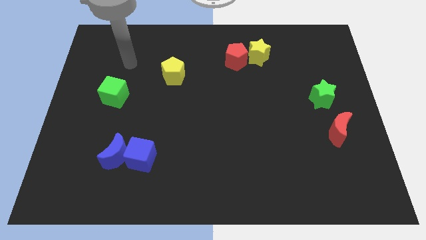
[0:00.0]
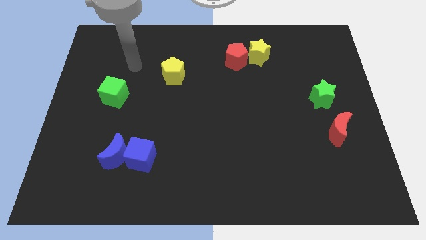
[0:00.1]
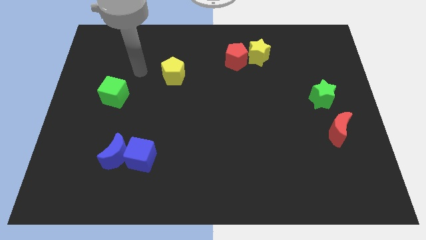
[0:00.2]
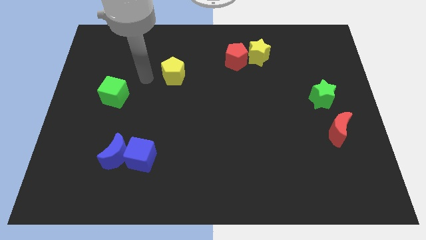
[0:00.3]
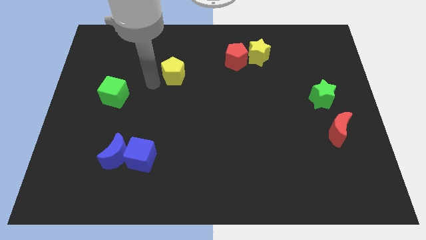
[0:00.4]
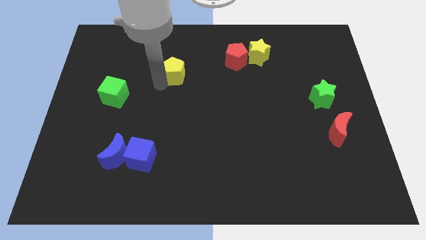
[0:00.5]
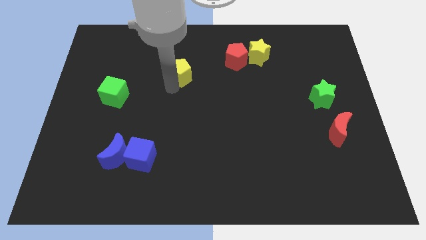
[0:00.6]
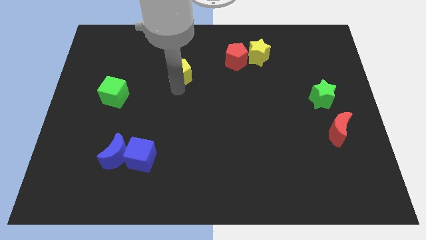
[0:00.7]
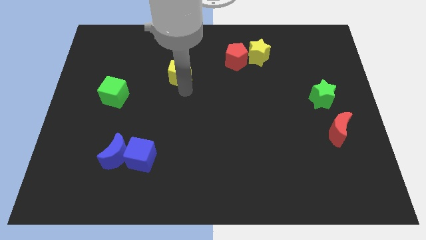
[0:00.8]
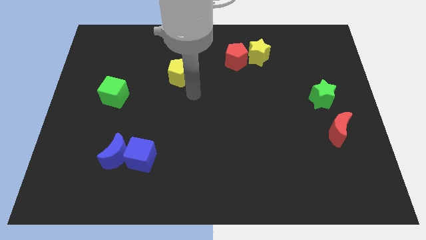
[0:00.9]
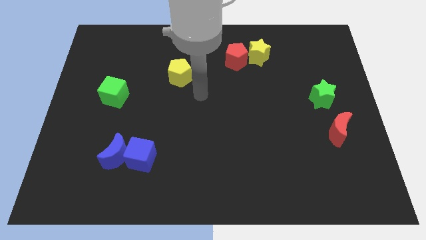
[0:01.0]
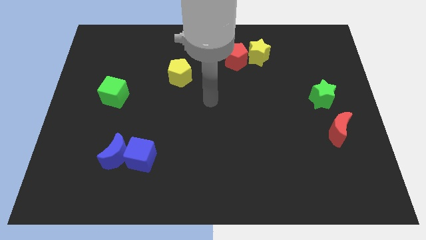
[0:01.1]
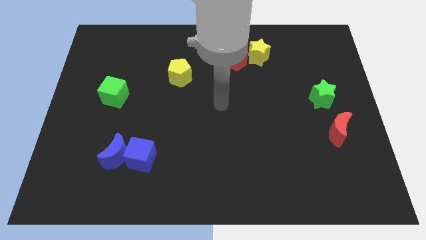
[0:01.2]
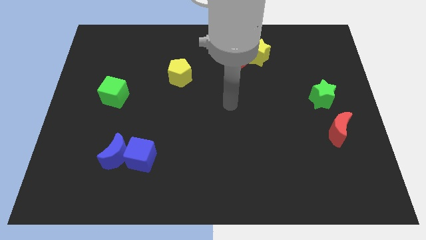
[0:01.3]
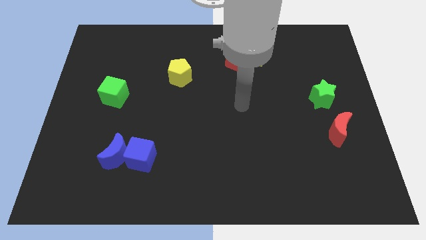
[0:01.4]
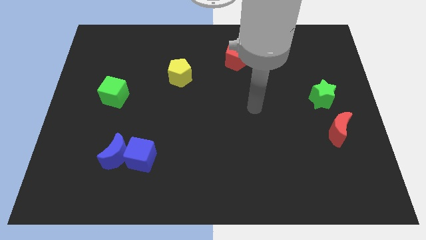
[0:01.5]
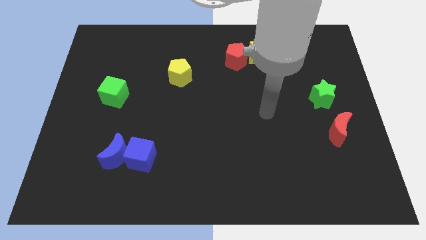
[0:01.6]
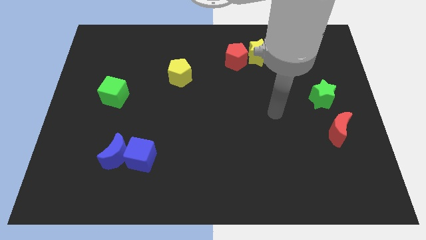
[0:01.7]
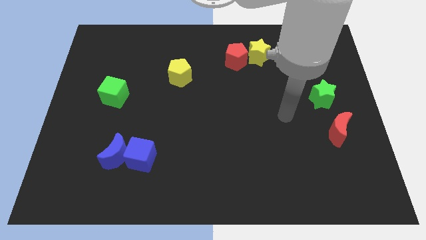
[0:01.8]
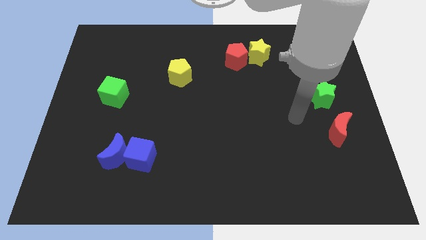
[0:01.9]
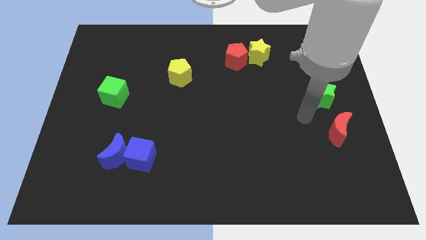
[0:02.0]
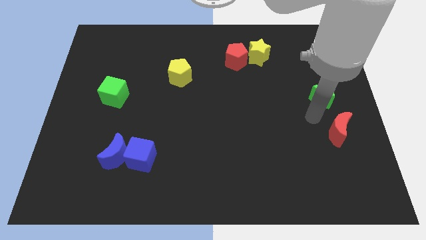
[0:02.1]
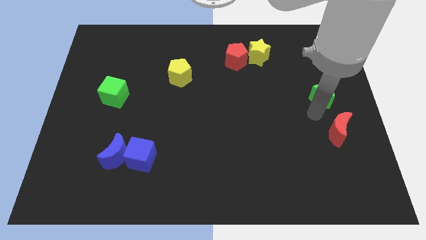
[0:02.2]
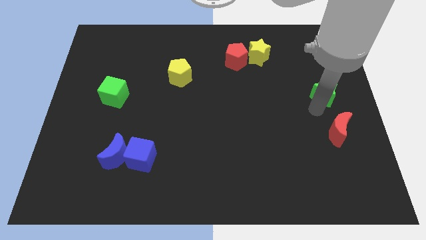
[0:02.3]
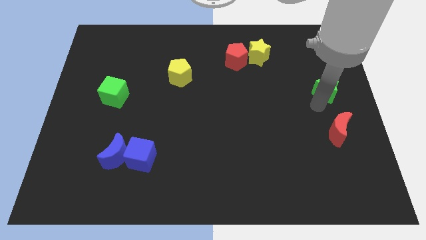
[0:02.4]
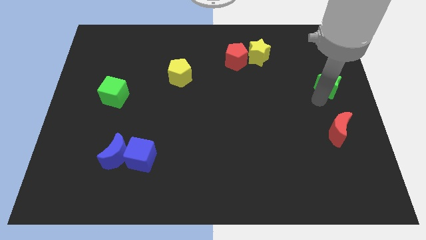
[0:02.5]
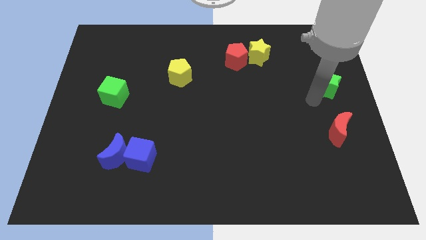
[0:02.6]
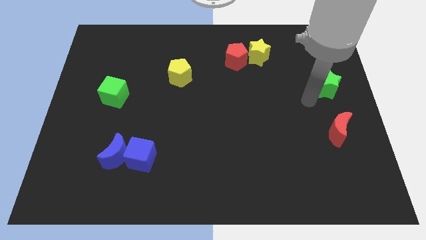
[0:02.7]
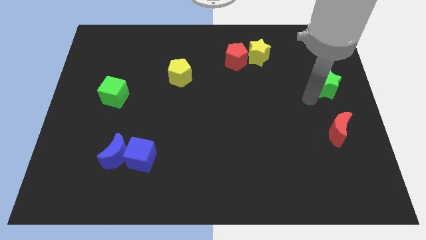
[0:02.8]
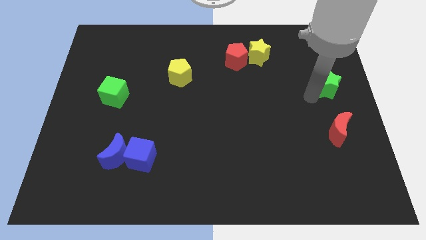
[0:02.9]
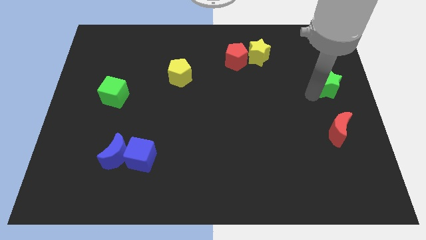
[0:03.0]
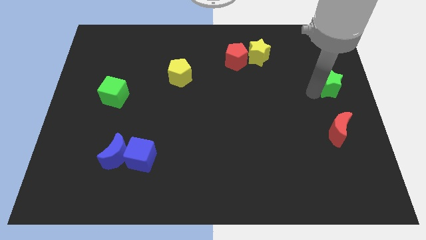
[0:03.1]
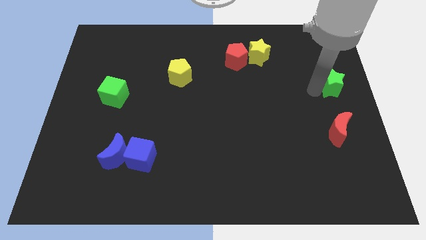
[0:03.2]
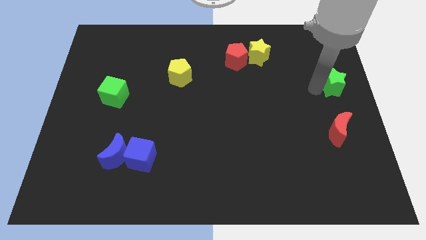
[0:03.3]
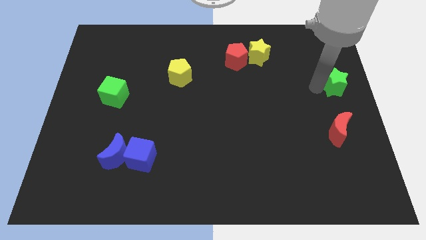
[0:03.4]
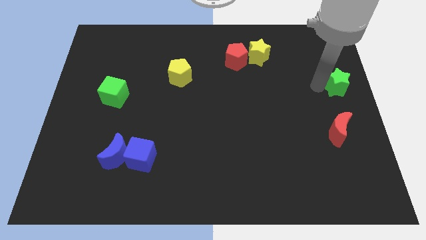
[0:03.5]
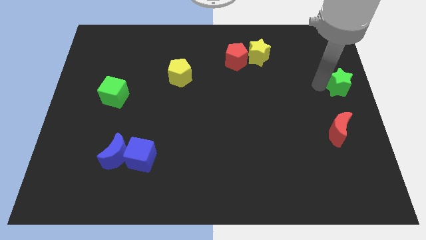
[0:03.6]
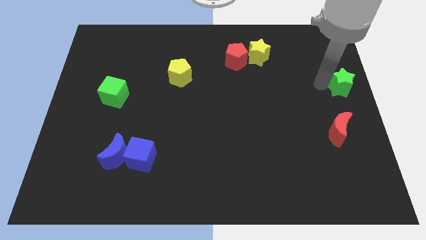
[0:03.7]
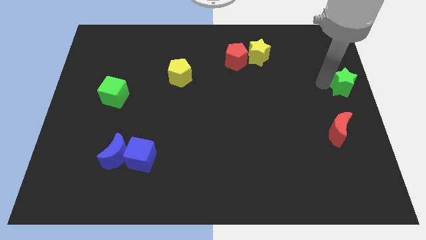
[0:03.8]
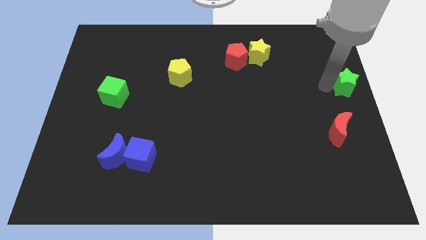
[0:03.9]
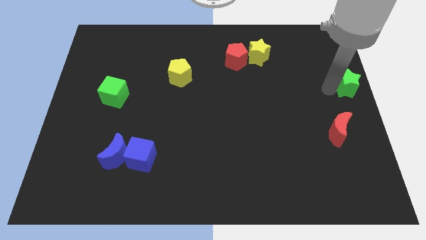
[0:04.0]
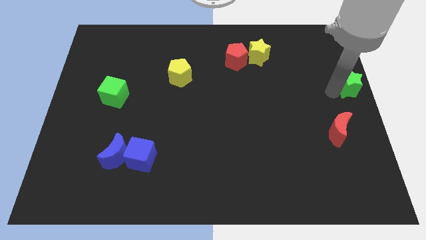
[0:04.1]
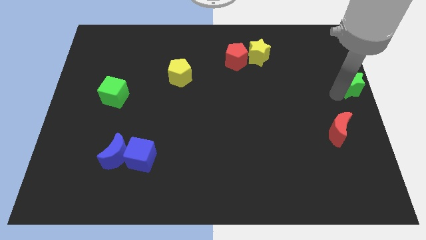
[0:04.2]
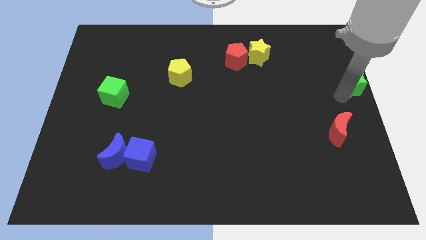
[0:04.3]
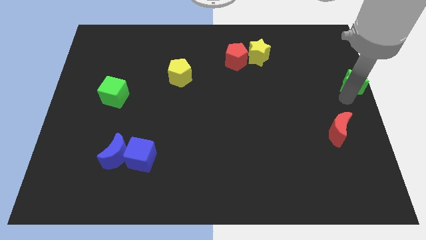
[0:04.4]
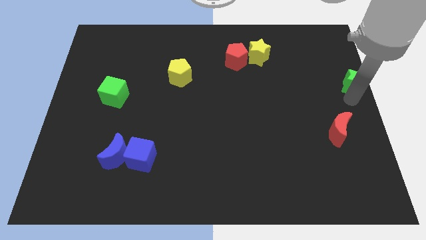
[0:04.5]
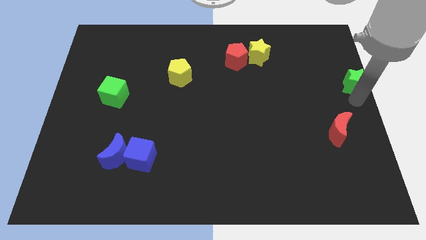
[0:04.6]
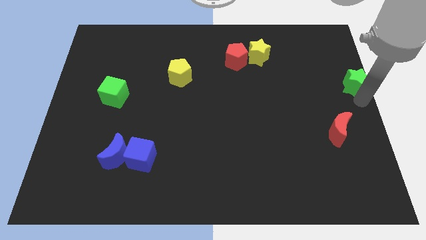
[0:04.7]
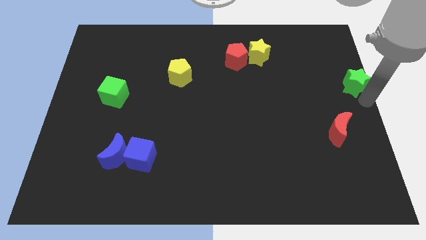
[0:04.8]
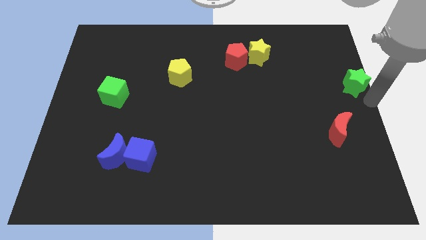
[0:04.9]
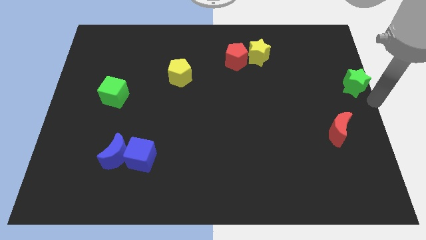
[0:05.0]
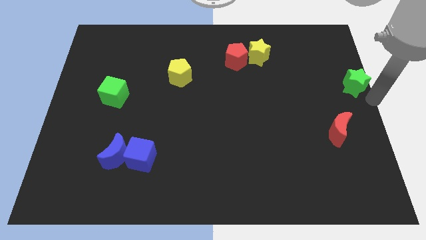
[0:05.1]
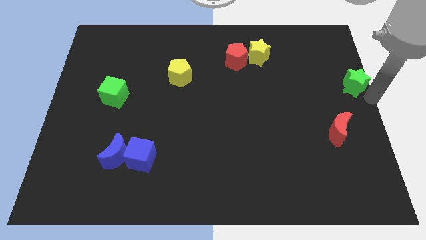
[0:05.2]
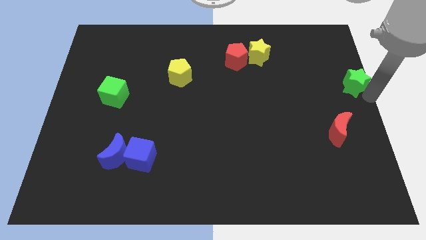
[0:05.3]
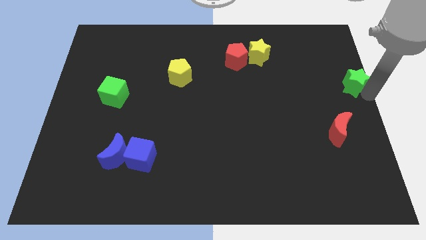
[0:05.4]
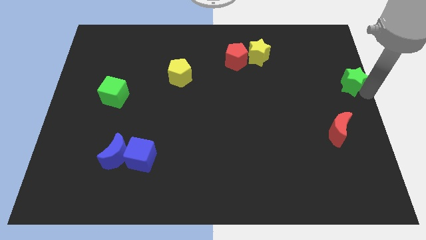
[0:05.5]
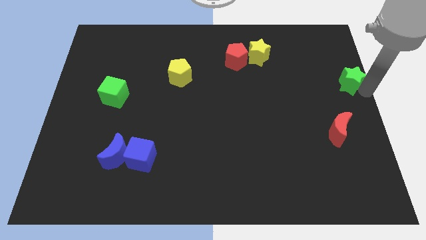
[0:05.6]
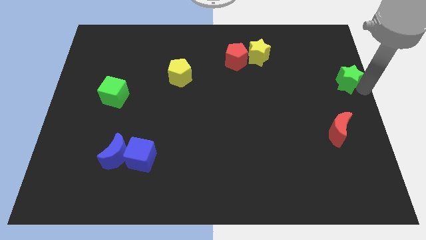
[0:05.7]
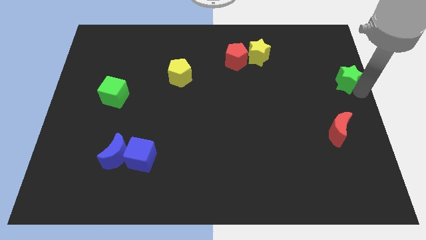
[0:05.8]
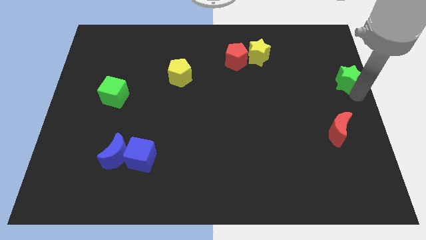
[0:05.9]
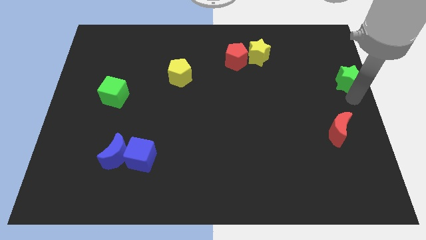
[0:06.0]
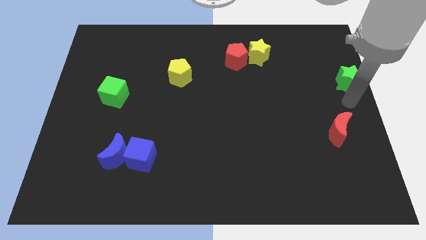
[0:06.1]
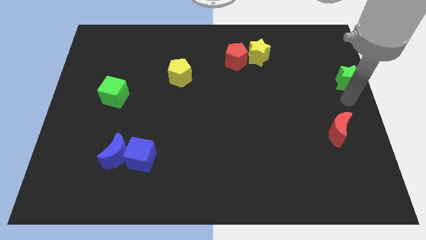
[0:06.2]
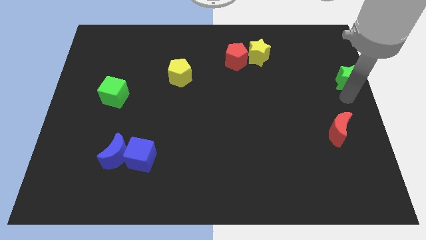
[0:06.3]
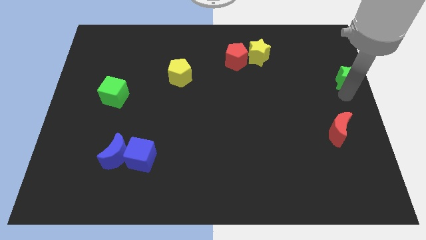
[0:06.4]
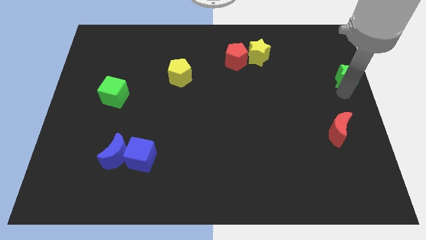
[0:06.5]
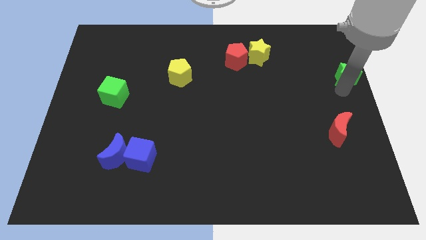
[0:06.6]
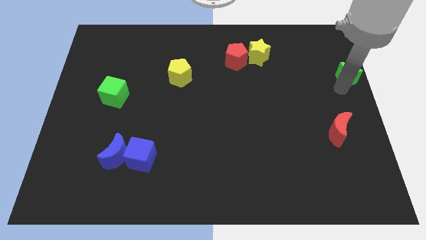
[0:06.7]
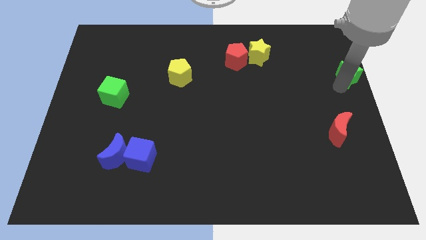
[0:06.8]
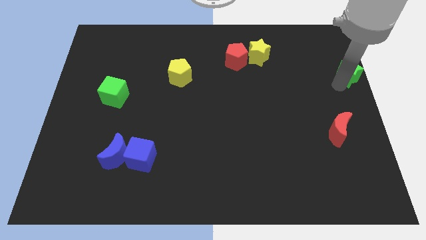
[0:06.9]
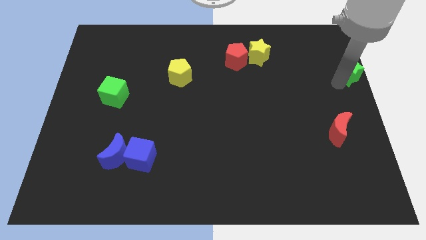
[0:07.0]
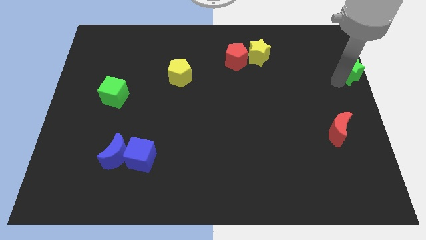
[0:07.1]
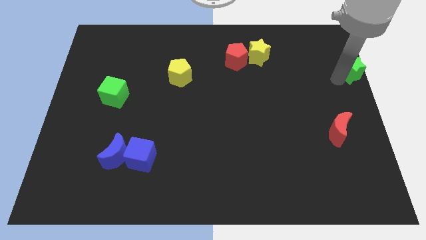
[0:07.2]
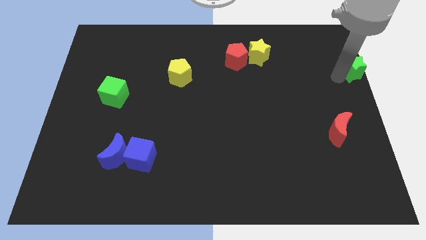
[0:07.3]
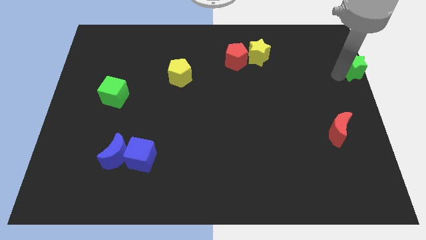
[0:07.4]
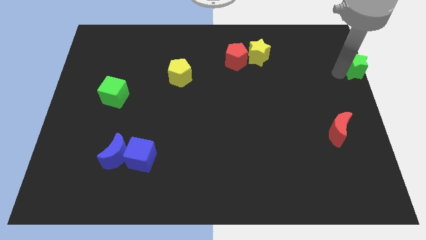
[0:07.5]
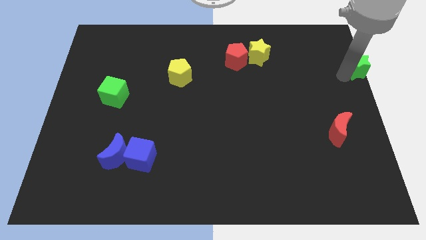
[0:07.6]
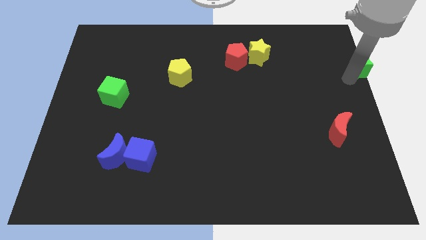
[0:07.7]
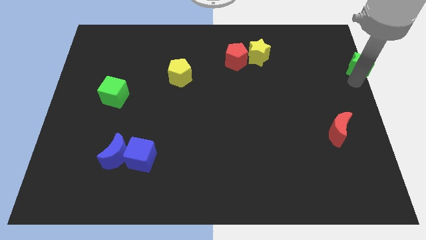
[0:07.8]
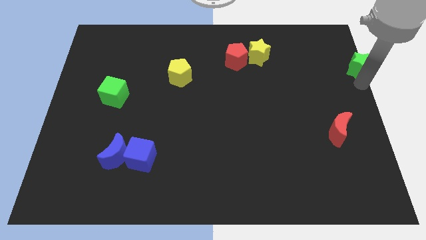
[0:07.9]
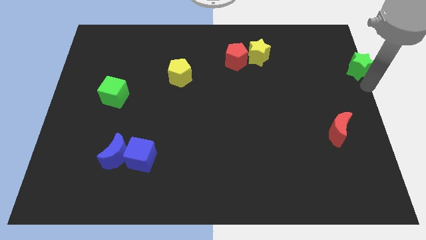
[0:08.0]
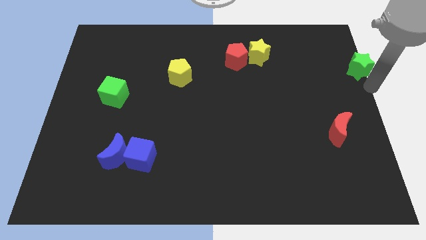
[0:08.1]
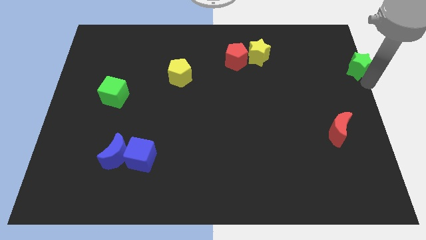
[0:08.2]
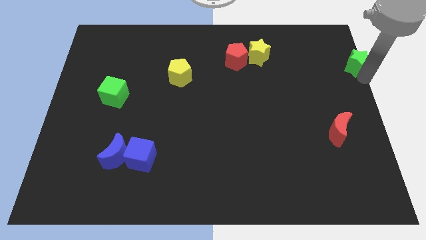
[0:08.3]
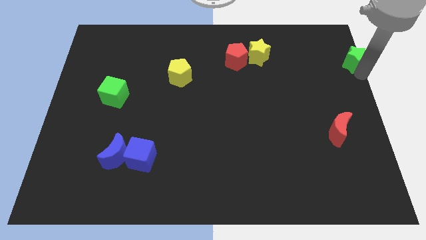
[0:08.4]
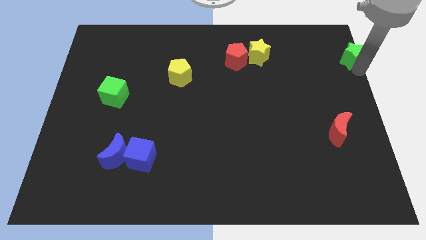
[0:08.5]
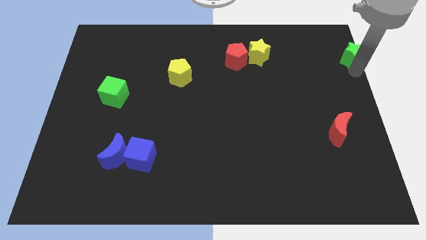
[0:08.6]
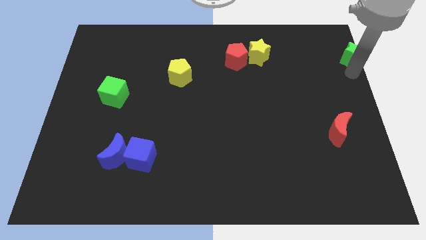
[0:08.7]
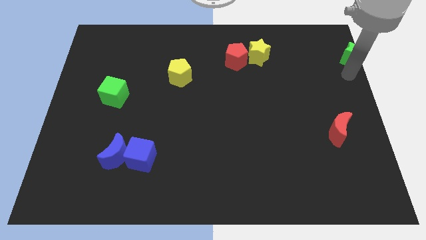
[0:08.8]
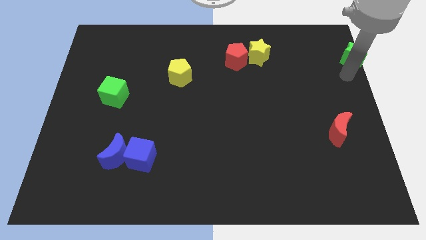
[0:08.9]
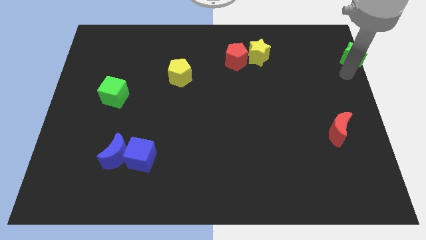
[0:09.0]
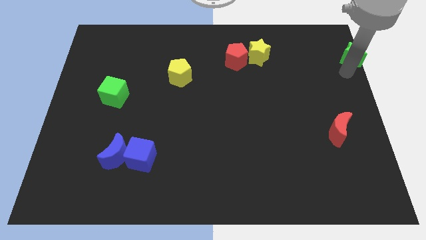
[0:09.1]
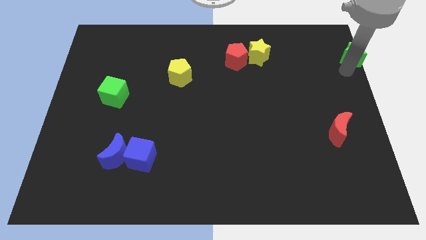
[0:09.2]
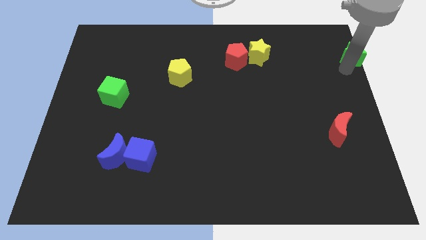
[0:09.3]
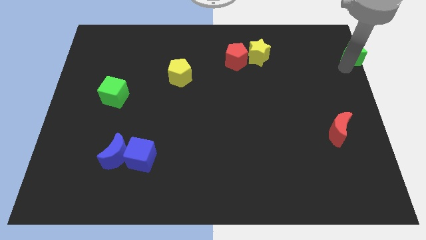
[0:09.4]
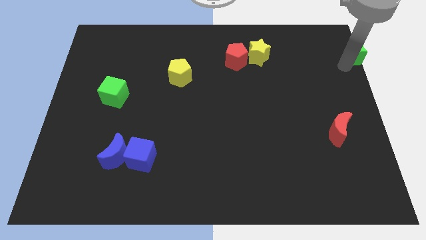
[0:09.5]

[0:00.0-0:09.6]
slide the green star to the top right
